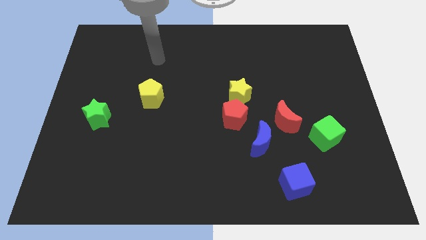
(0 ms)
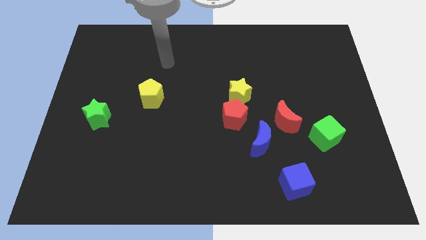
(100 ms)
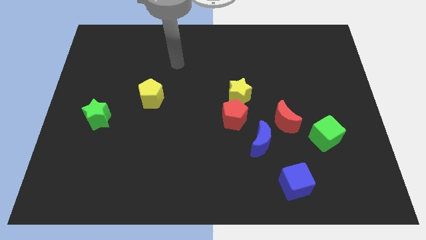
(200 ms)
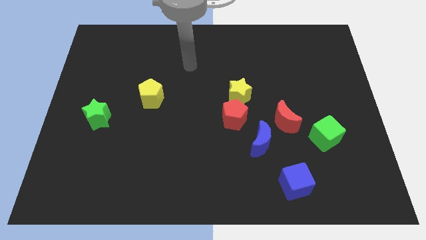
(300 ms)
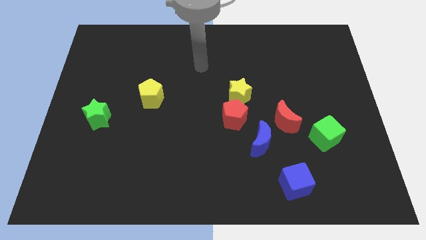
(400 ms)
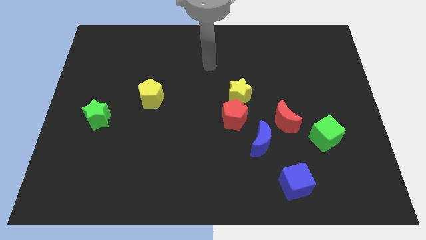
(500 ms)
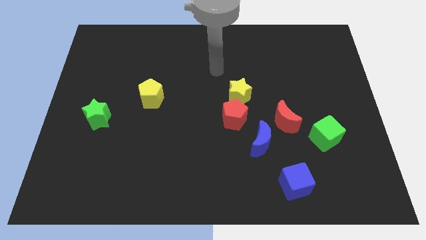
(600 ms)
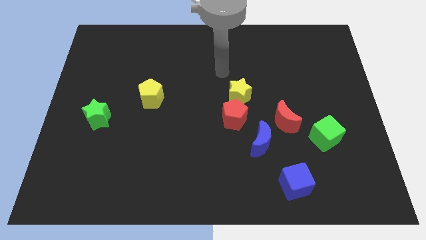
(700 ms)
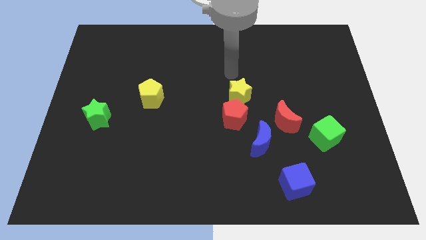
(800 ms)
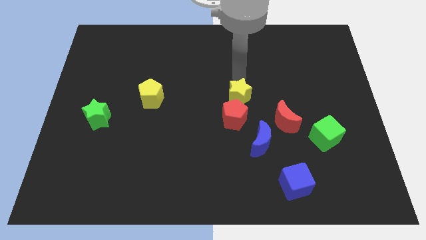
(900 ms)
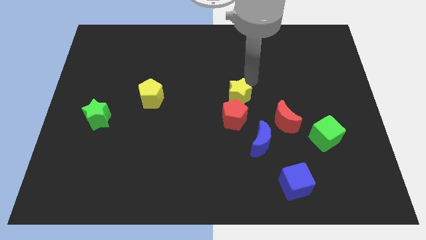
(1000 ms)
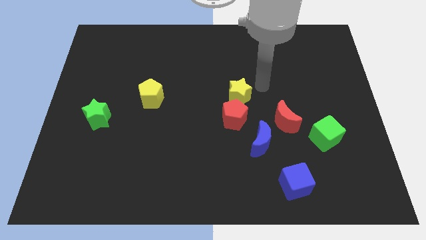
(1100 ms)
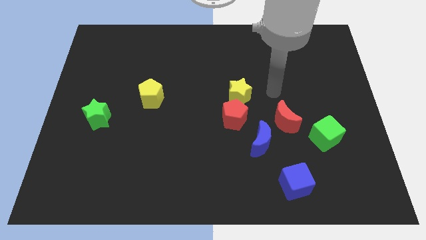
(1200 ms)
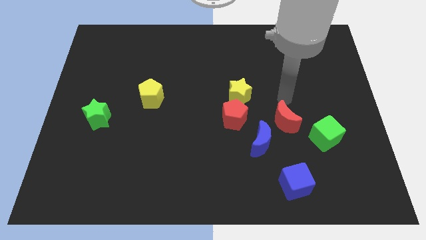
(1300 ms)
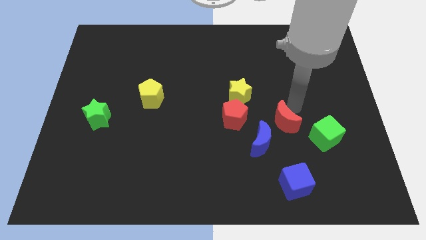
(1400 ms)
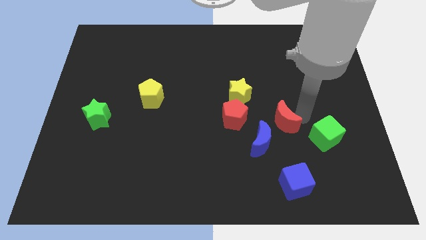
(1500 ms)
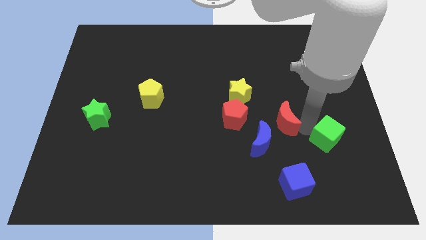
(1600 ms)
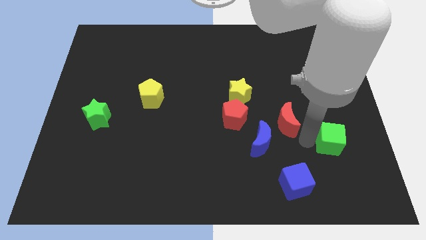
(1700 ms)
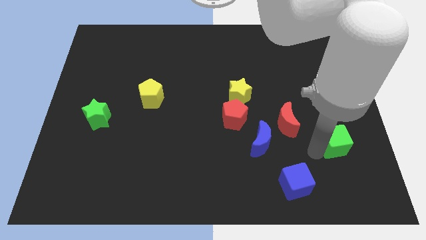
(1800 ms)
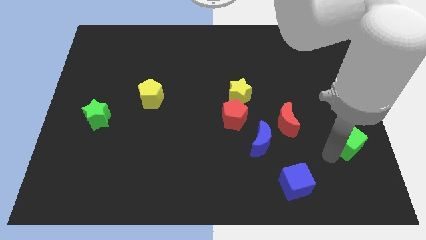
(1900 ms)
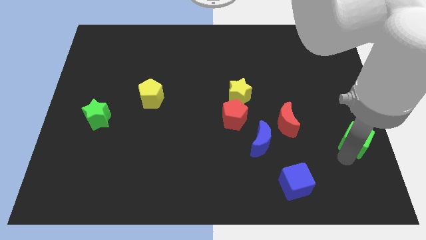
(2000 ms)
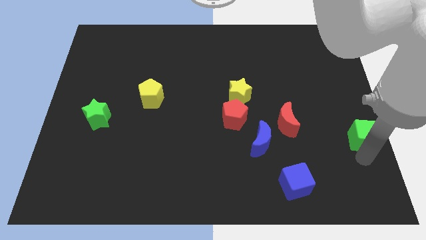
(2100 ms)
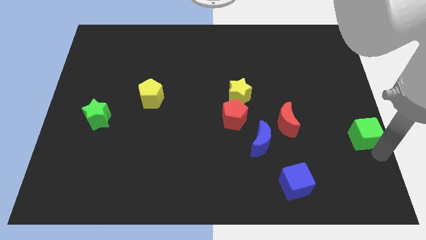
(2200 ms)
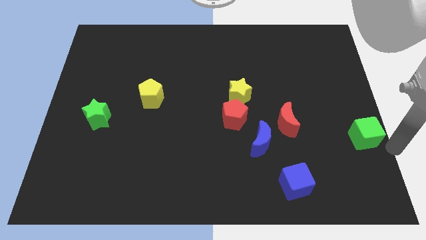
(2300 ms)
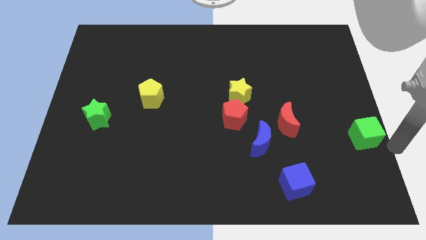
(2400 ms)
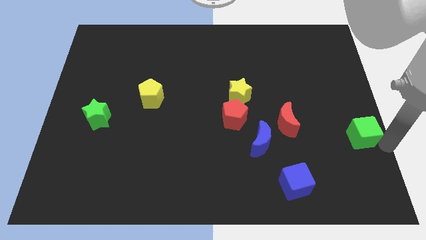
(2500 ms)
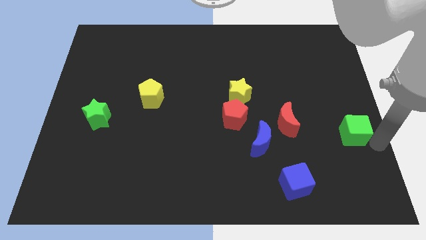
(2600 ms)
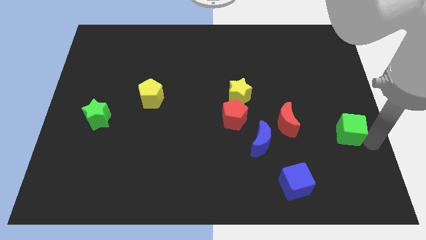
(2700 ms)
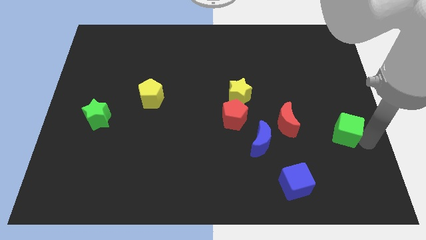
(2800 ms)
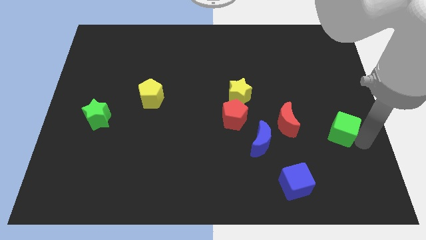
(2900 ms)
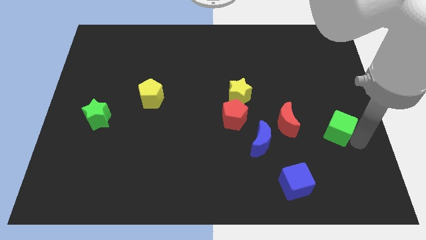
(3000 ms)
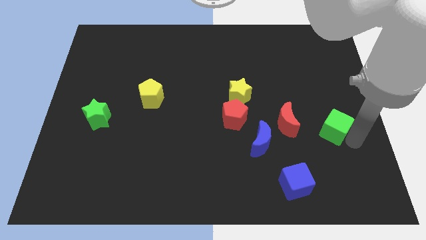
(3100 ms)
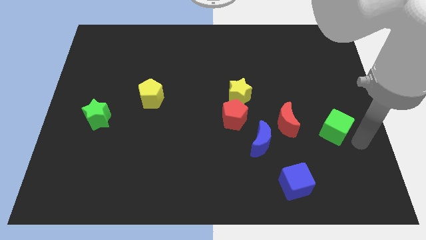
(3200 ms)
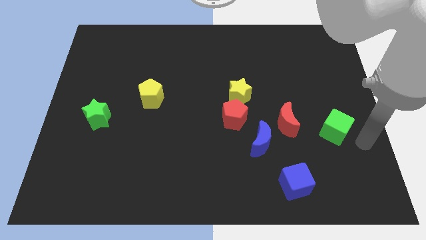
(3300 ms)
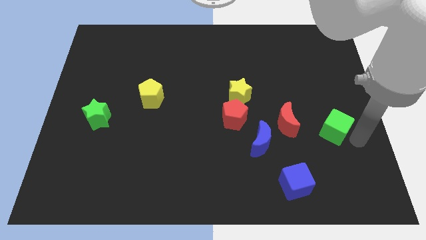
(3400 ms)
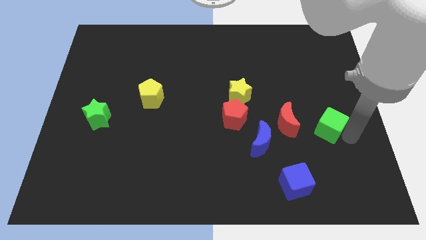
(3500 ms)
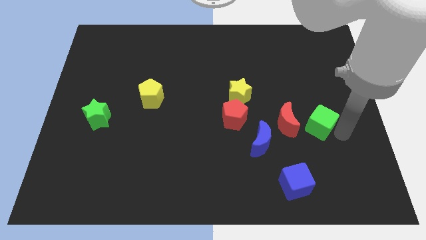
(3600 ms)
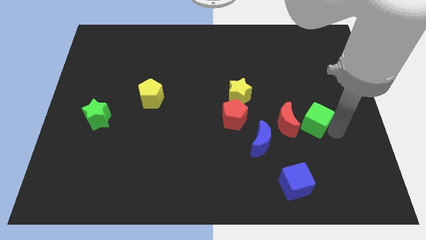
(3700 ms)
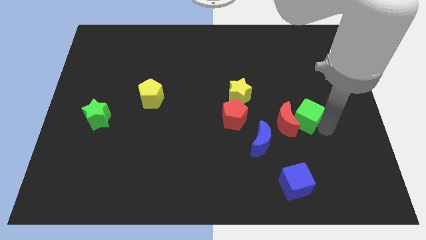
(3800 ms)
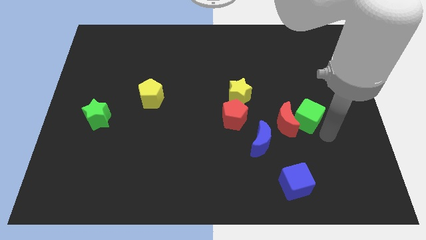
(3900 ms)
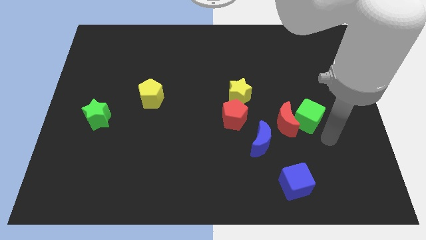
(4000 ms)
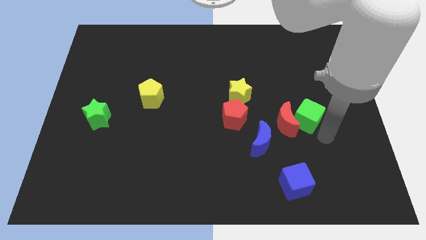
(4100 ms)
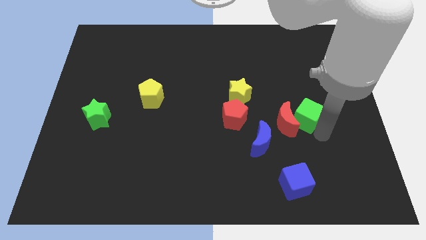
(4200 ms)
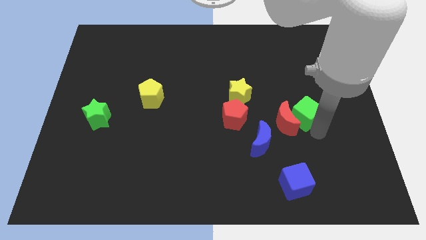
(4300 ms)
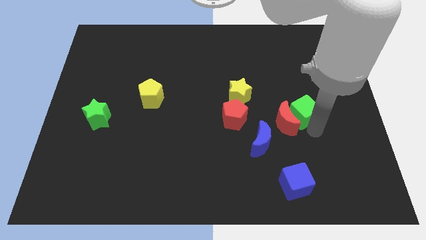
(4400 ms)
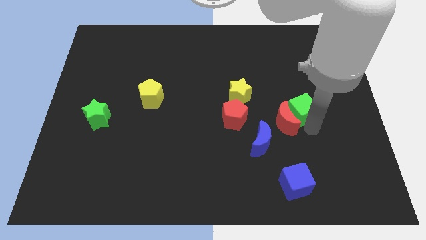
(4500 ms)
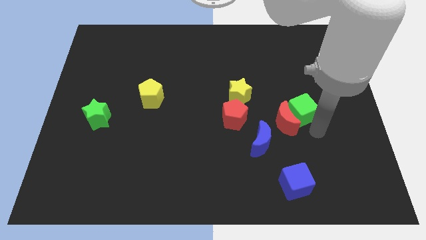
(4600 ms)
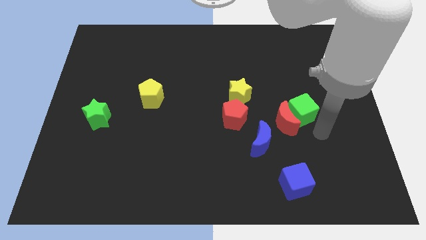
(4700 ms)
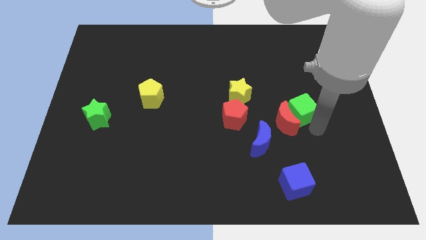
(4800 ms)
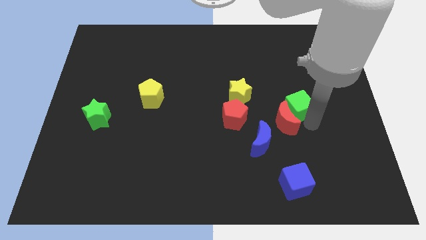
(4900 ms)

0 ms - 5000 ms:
push the green cube just right of the yellow star

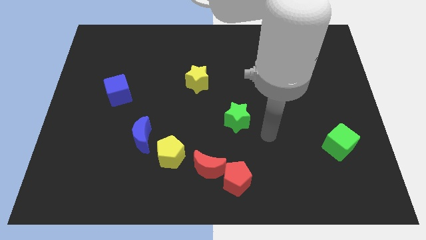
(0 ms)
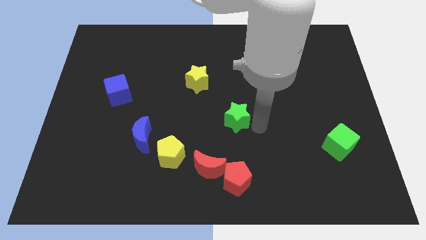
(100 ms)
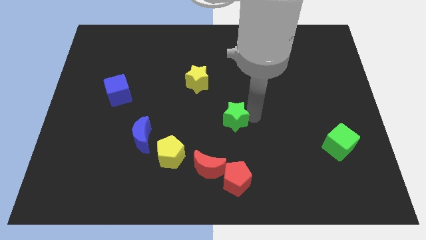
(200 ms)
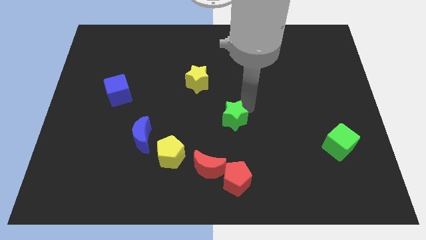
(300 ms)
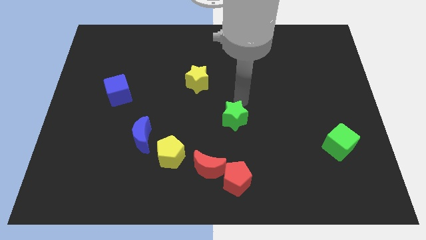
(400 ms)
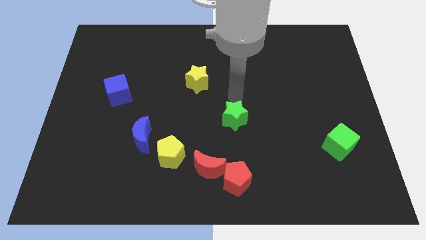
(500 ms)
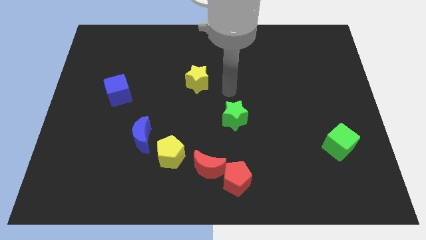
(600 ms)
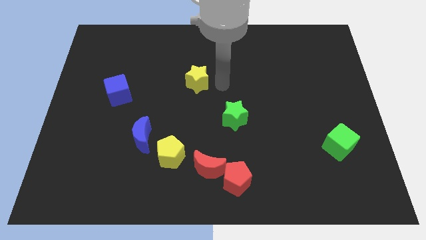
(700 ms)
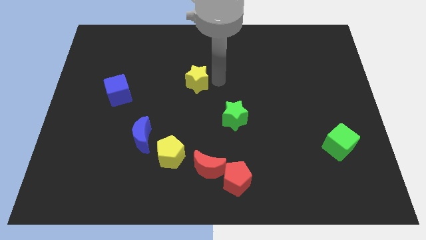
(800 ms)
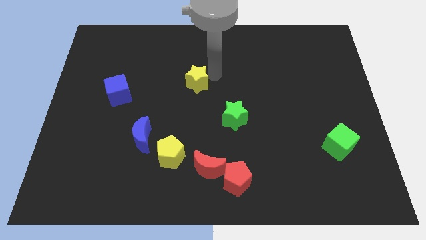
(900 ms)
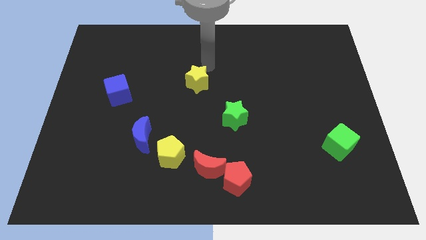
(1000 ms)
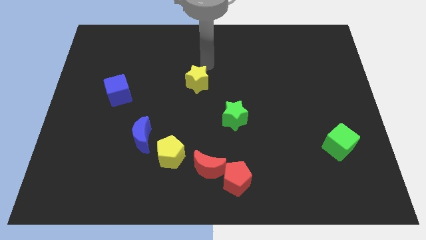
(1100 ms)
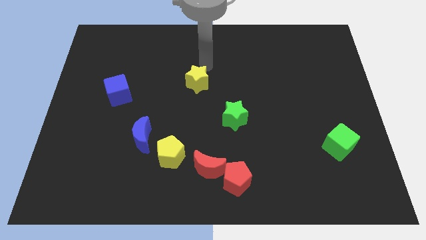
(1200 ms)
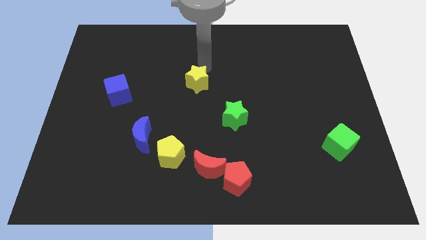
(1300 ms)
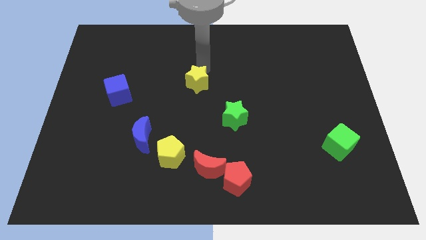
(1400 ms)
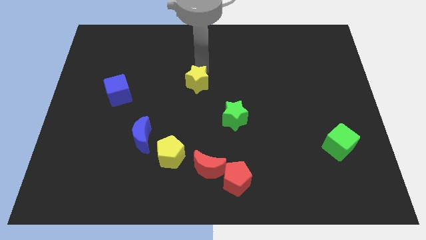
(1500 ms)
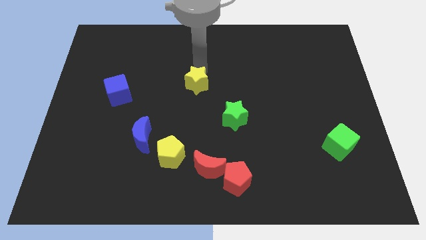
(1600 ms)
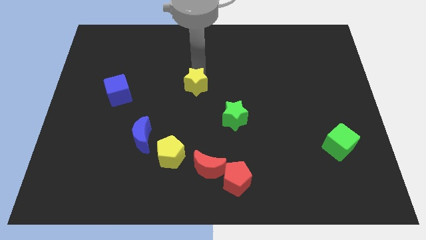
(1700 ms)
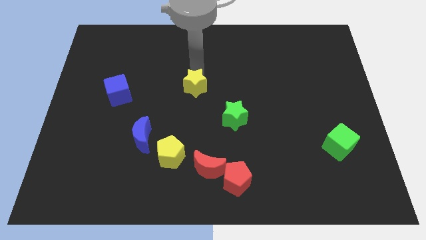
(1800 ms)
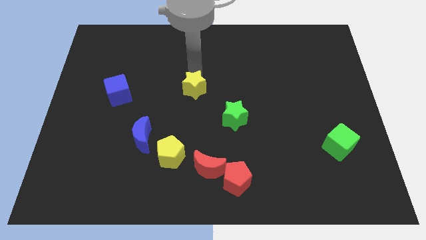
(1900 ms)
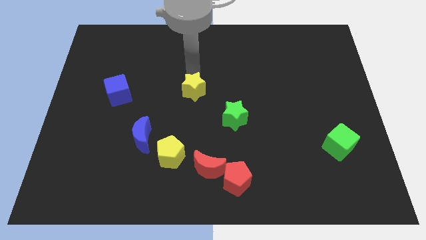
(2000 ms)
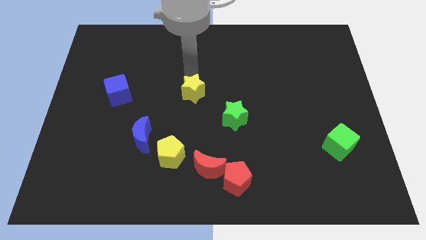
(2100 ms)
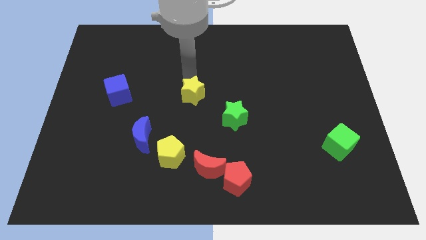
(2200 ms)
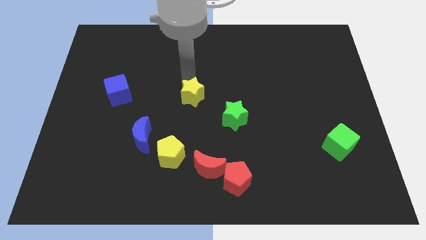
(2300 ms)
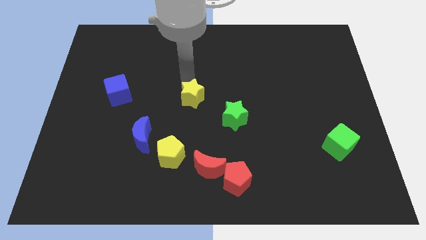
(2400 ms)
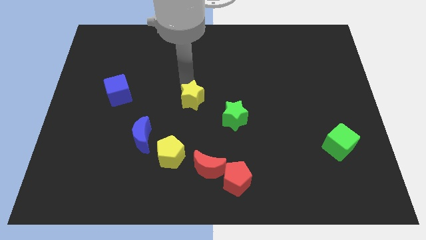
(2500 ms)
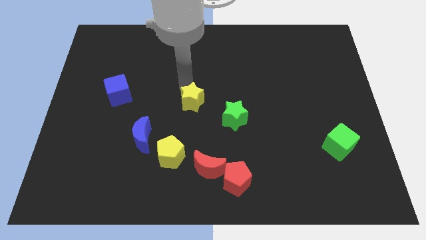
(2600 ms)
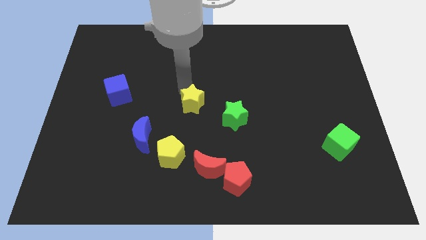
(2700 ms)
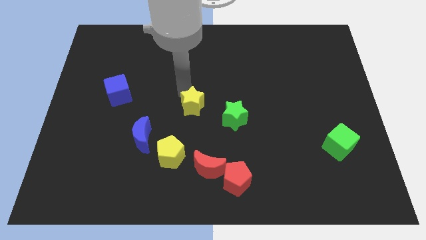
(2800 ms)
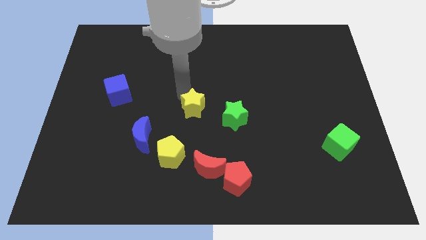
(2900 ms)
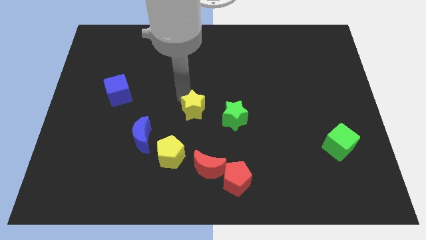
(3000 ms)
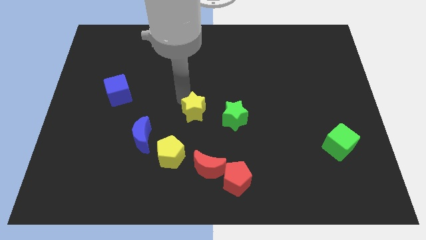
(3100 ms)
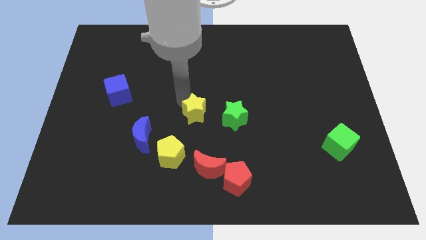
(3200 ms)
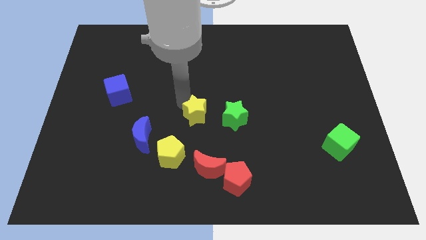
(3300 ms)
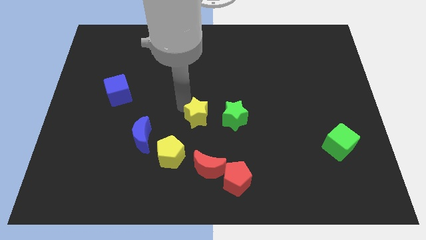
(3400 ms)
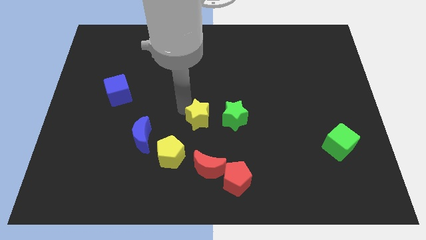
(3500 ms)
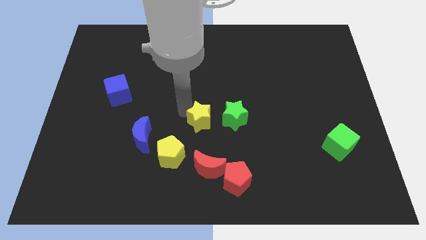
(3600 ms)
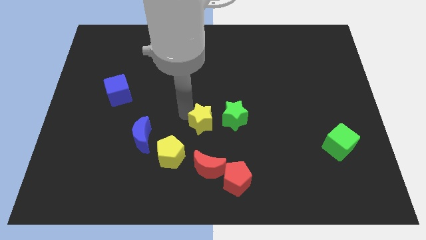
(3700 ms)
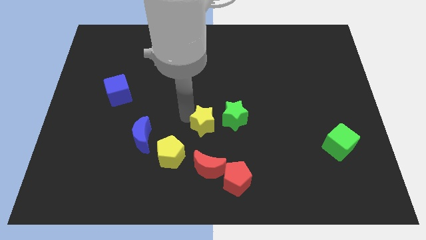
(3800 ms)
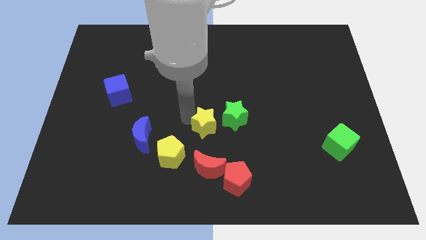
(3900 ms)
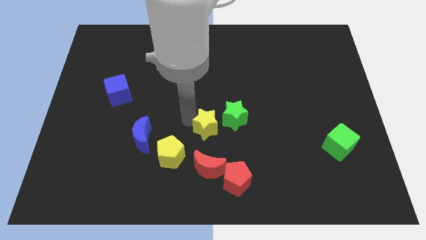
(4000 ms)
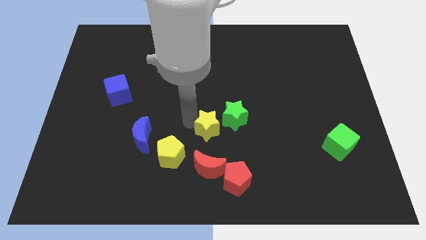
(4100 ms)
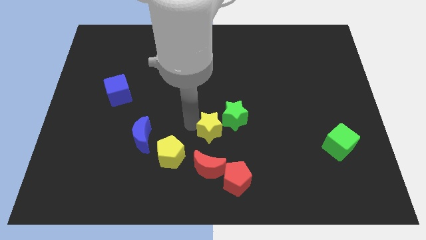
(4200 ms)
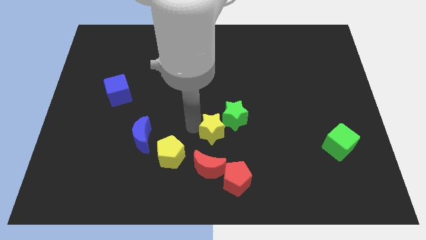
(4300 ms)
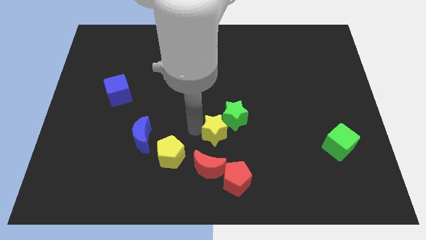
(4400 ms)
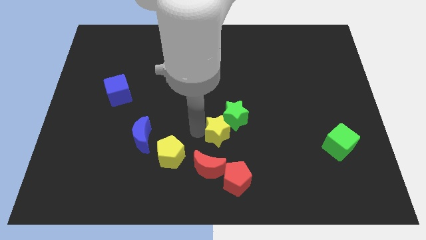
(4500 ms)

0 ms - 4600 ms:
move the yellow star to the top right side of the red moon
